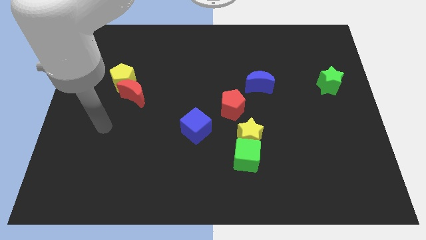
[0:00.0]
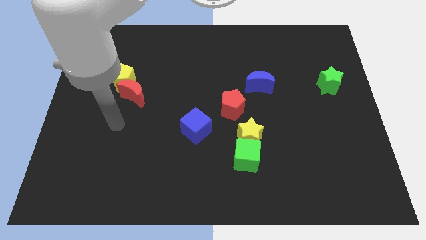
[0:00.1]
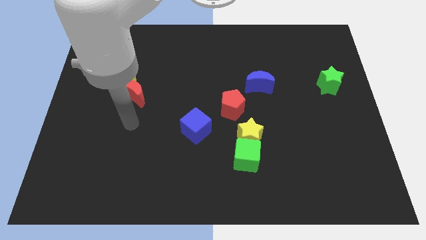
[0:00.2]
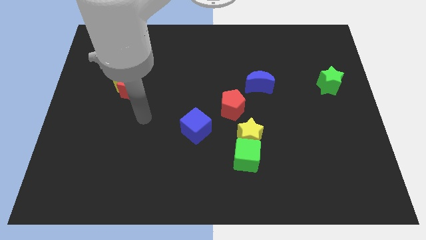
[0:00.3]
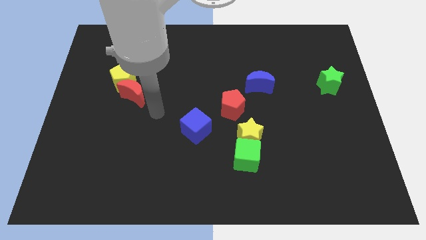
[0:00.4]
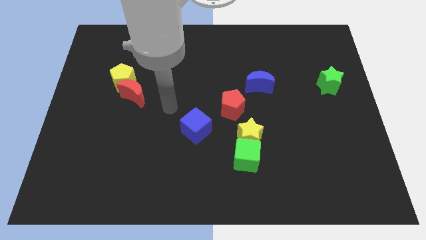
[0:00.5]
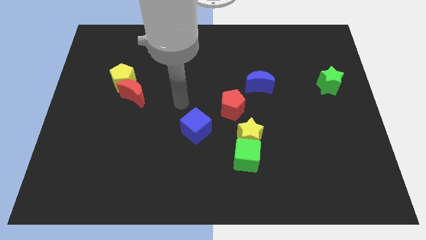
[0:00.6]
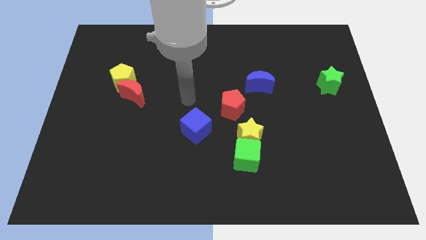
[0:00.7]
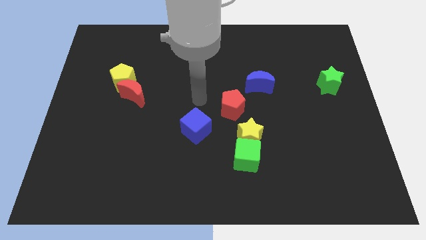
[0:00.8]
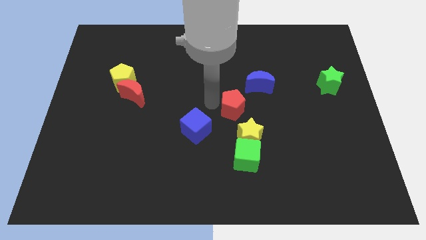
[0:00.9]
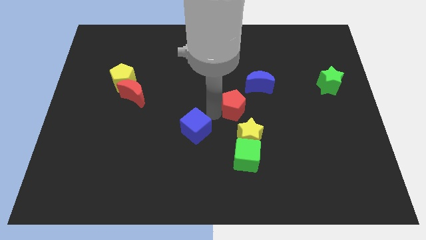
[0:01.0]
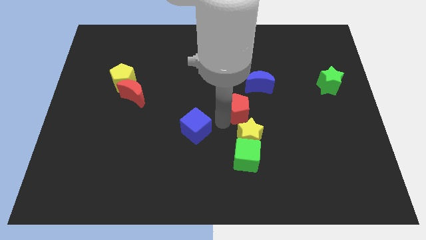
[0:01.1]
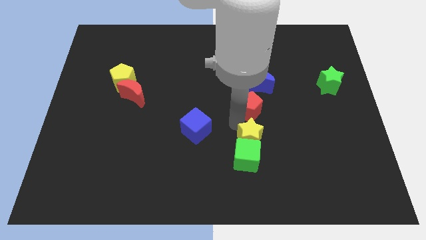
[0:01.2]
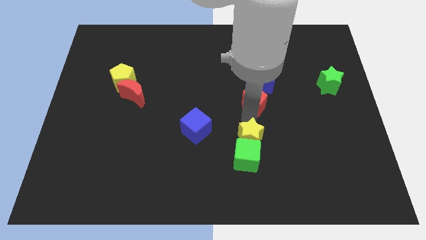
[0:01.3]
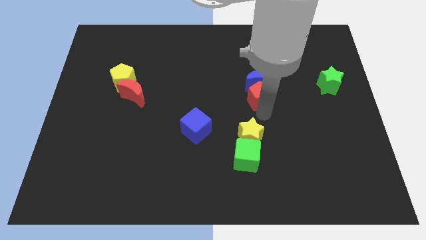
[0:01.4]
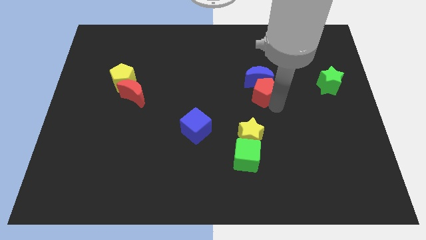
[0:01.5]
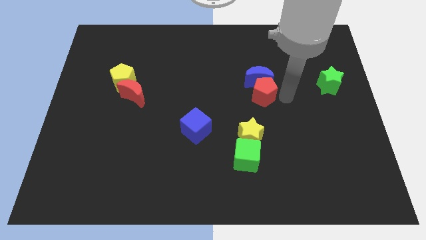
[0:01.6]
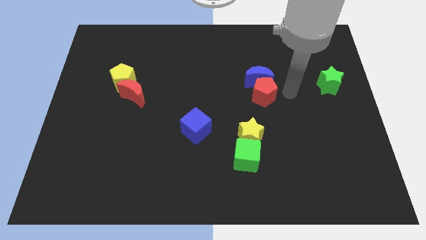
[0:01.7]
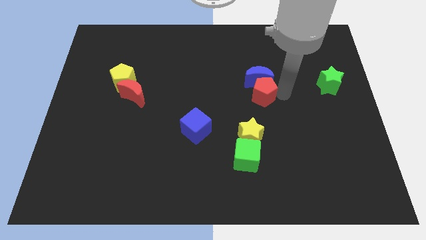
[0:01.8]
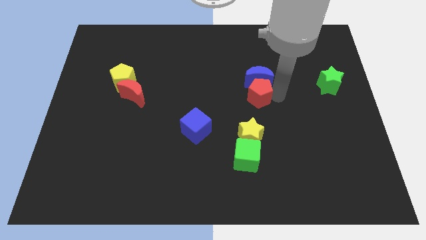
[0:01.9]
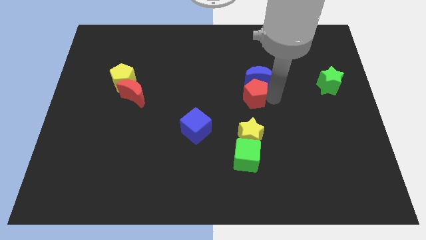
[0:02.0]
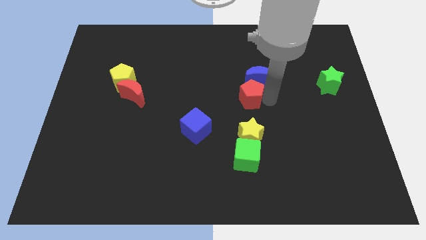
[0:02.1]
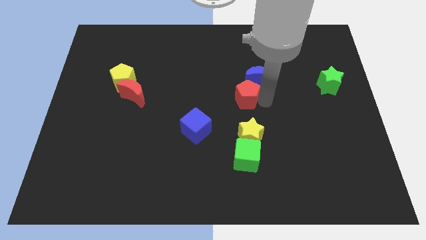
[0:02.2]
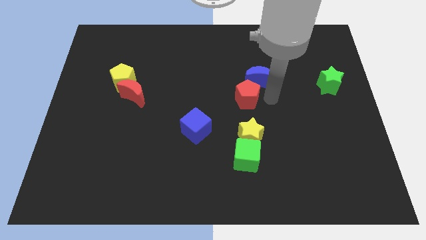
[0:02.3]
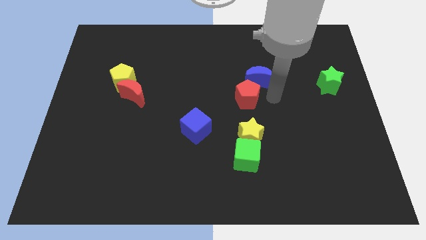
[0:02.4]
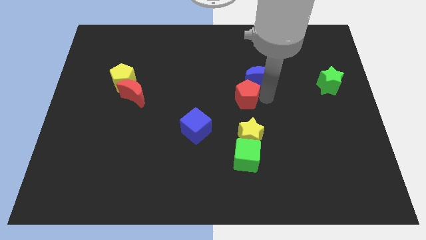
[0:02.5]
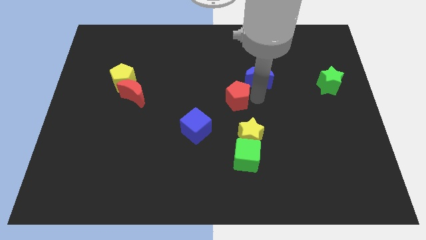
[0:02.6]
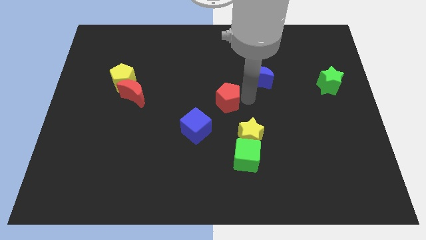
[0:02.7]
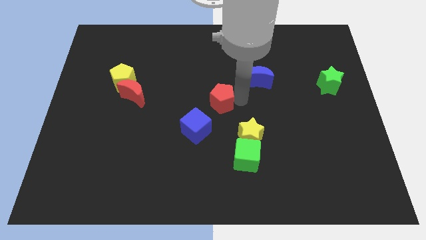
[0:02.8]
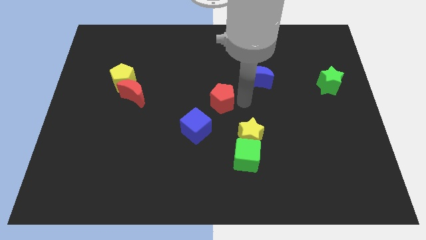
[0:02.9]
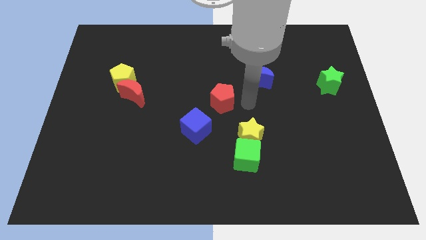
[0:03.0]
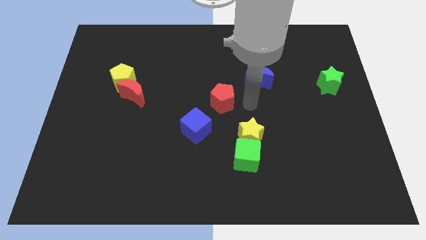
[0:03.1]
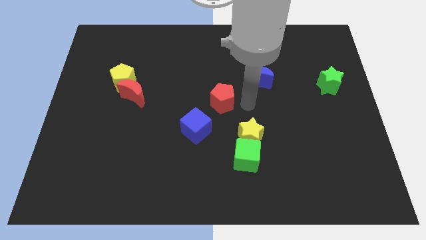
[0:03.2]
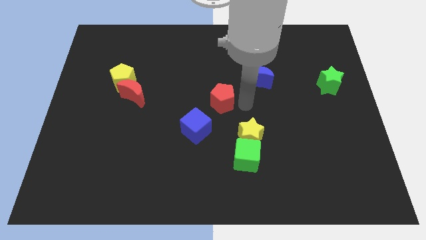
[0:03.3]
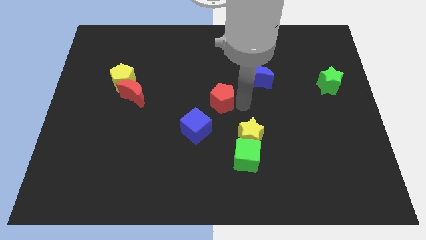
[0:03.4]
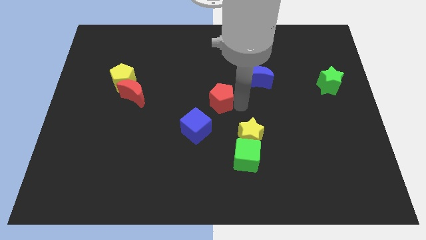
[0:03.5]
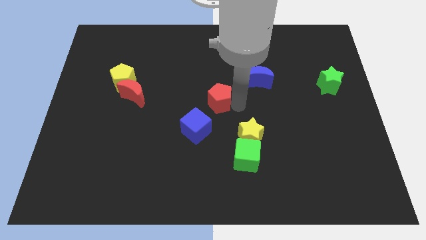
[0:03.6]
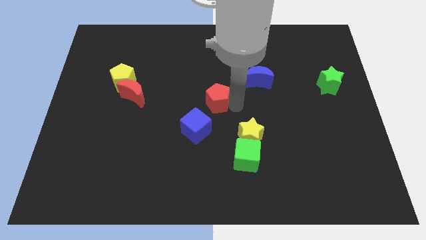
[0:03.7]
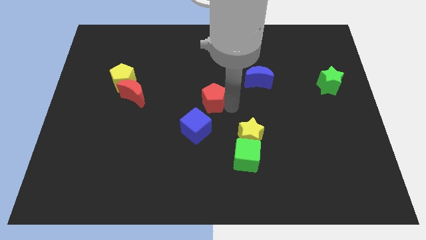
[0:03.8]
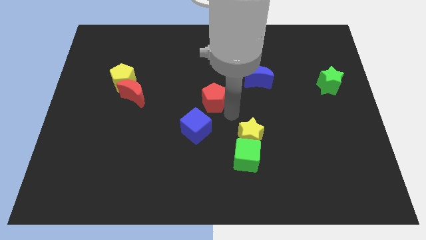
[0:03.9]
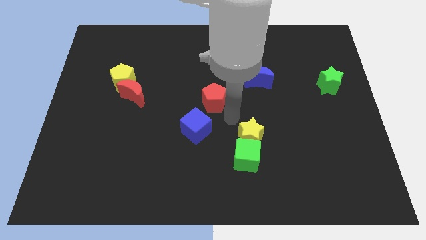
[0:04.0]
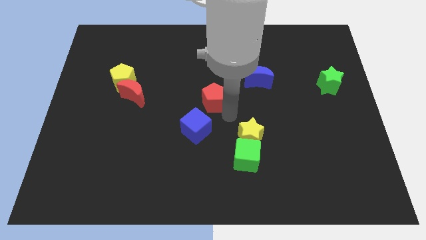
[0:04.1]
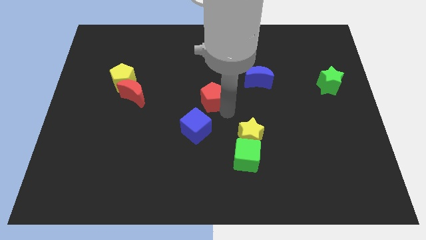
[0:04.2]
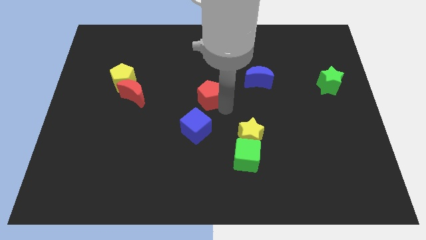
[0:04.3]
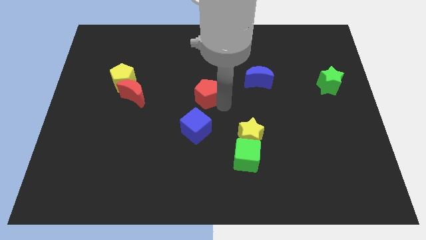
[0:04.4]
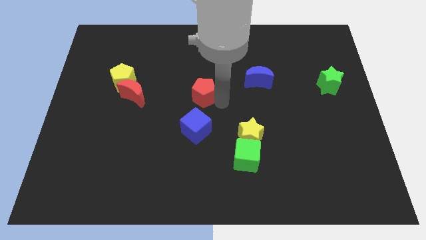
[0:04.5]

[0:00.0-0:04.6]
push the red pentagon upwards and then left a bit

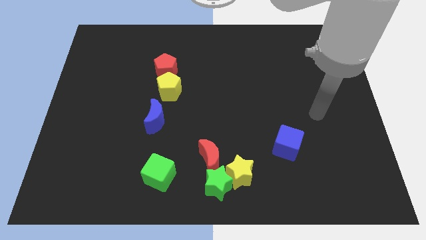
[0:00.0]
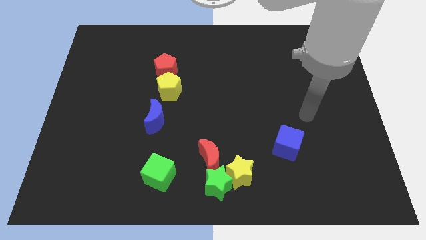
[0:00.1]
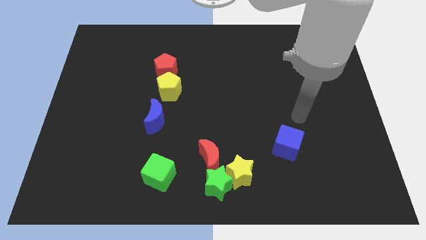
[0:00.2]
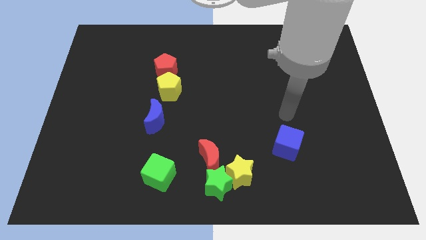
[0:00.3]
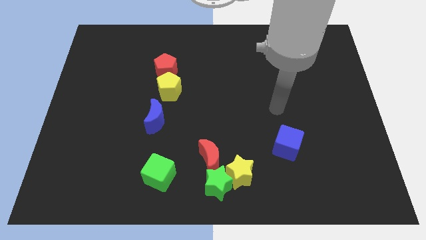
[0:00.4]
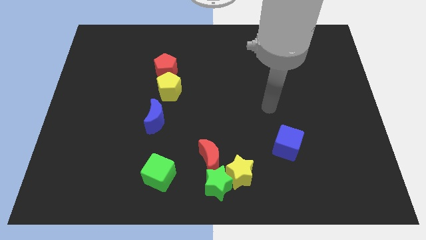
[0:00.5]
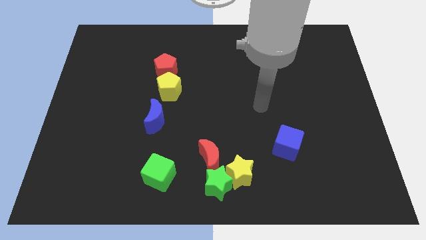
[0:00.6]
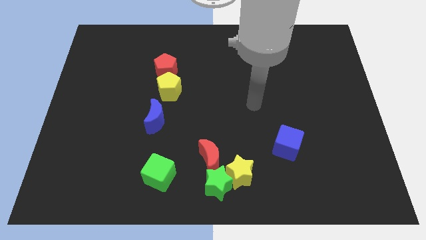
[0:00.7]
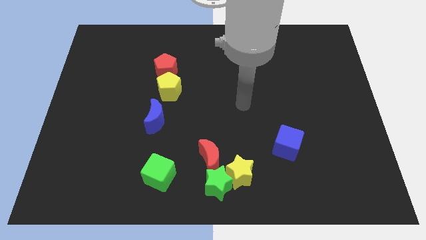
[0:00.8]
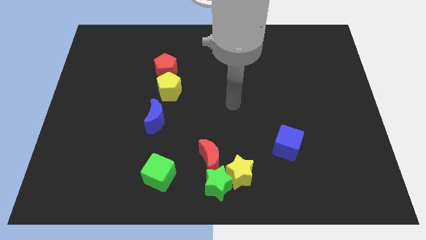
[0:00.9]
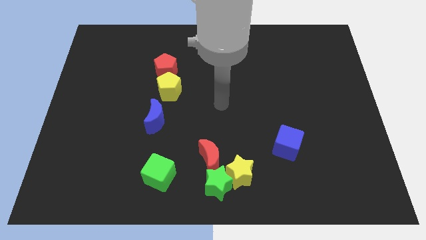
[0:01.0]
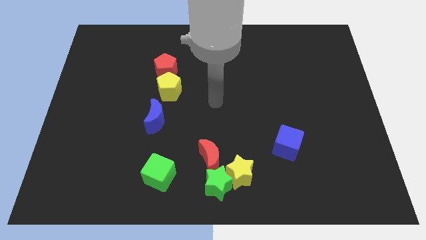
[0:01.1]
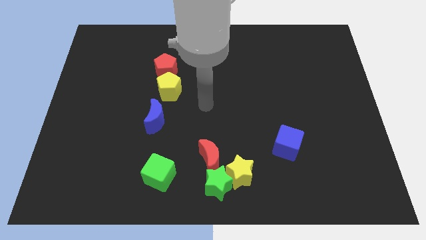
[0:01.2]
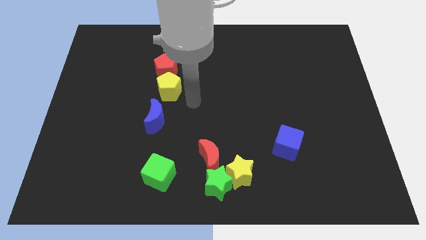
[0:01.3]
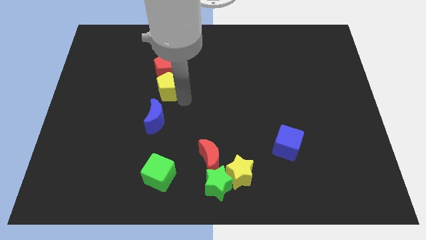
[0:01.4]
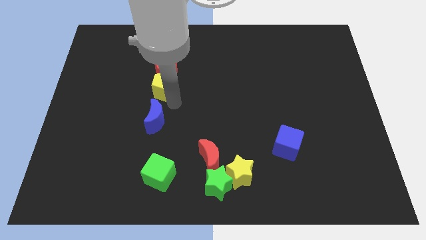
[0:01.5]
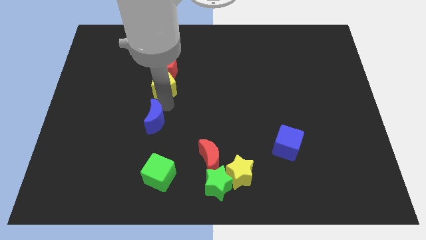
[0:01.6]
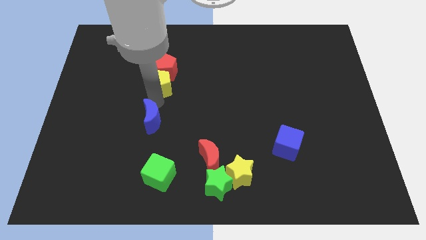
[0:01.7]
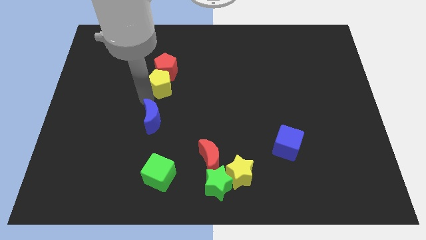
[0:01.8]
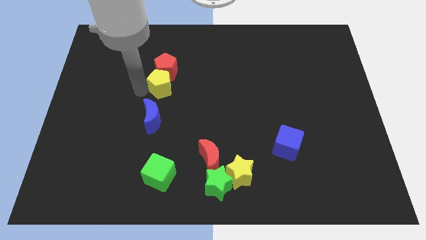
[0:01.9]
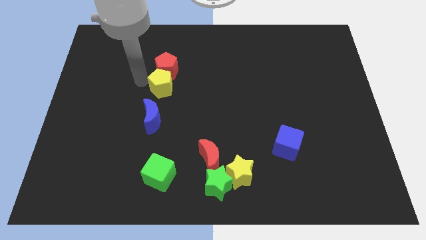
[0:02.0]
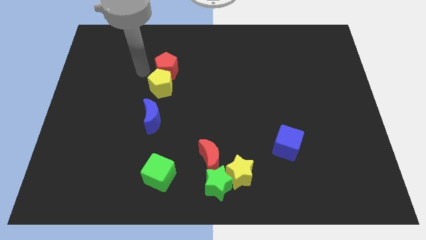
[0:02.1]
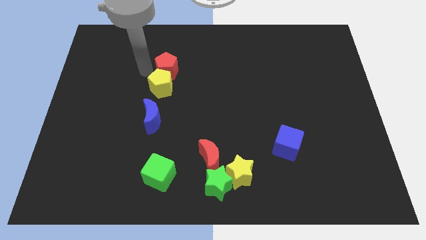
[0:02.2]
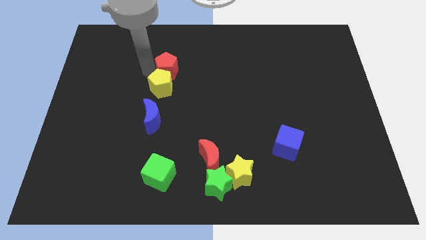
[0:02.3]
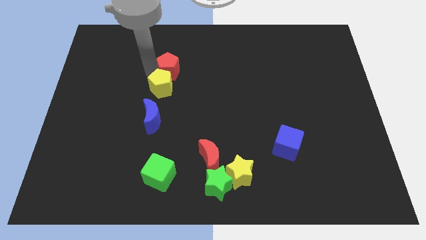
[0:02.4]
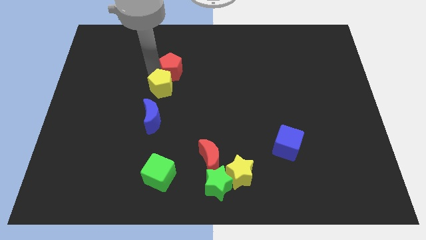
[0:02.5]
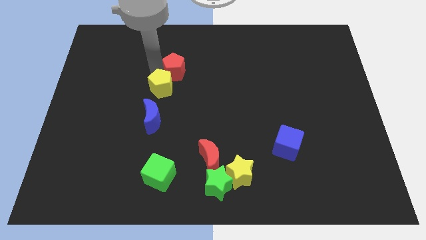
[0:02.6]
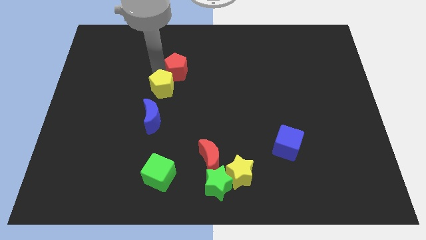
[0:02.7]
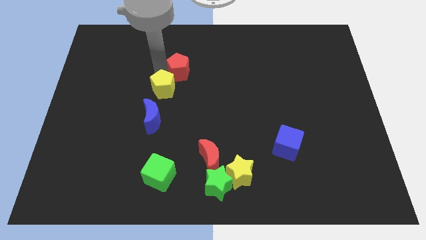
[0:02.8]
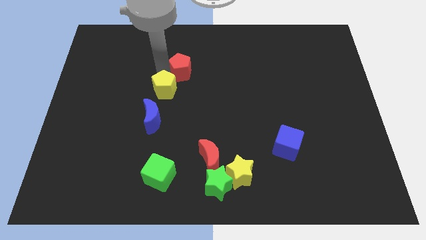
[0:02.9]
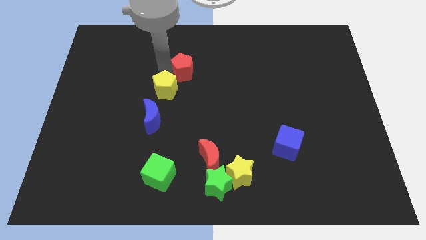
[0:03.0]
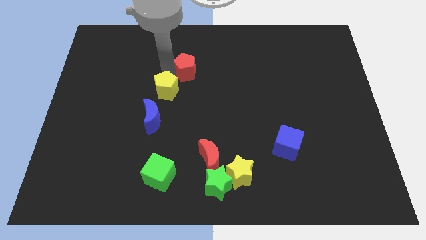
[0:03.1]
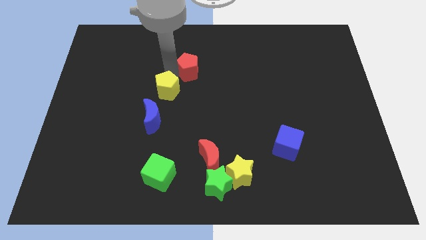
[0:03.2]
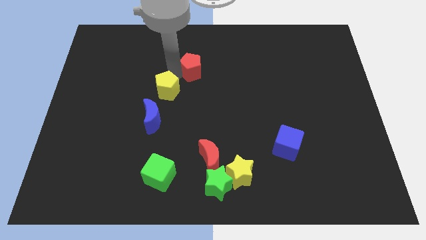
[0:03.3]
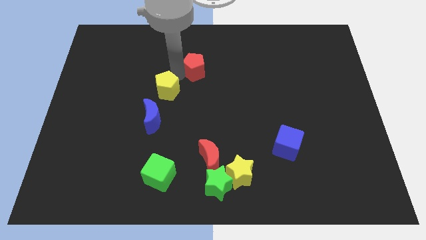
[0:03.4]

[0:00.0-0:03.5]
slide the red pentagon right a little

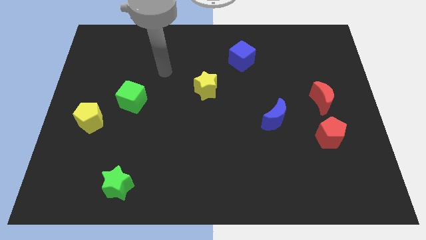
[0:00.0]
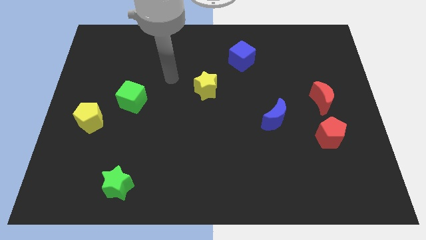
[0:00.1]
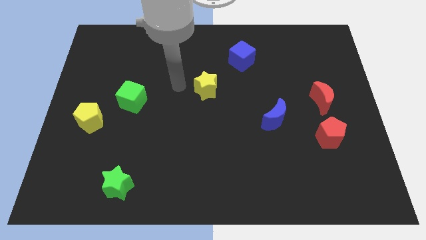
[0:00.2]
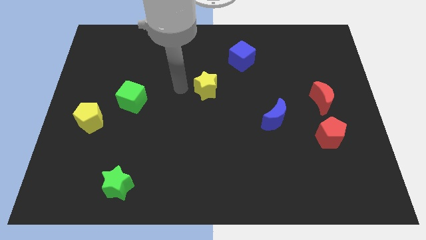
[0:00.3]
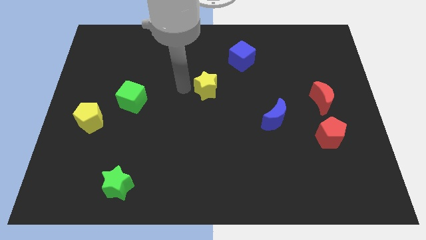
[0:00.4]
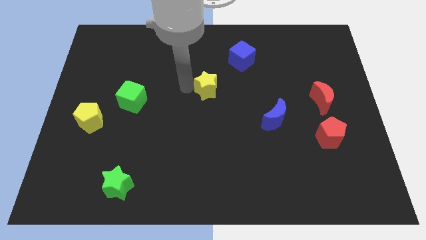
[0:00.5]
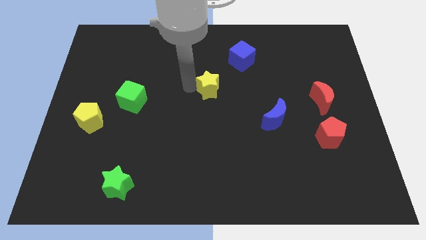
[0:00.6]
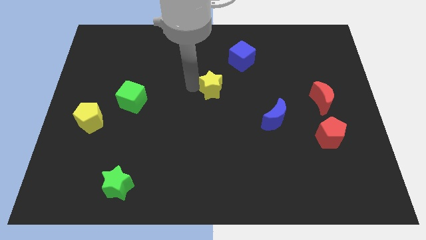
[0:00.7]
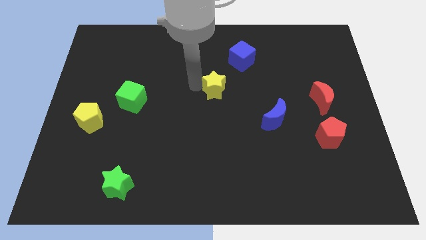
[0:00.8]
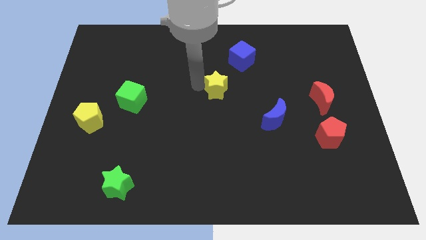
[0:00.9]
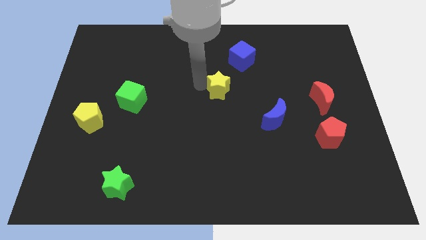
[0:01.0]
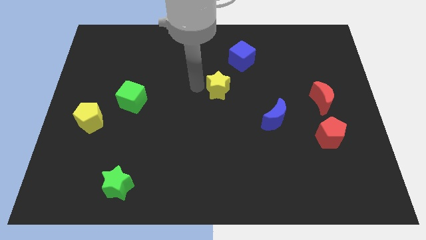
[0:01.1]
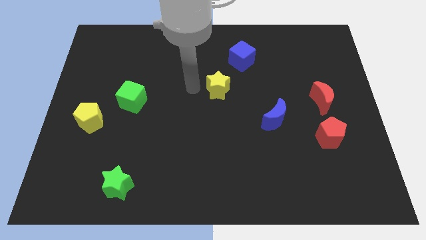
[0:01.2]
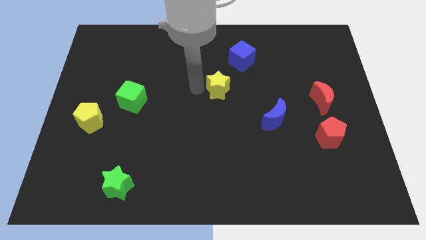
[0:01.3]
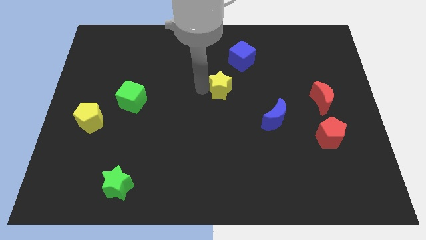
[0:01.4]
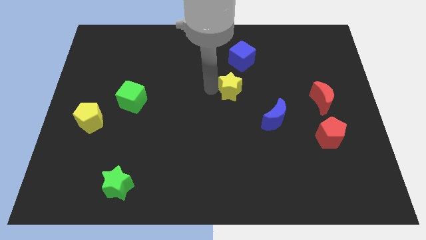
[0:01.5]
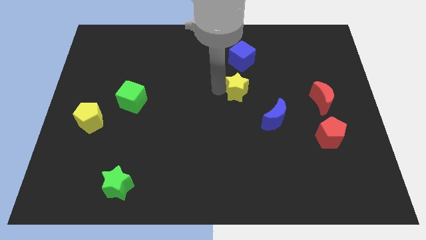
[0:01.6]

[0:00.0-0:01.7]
push the yellow star right a bit
